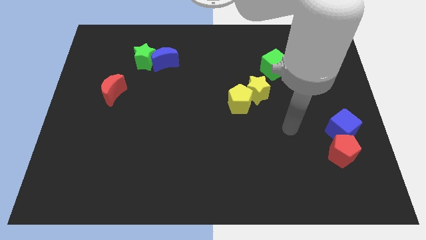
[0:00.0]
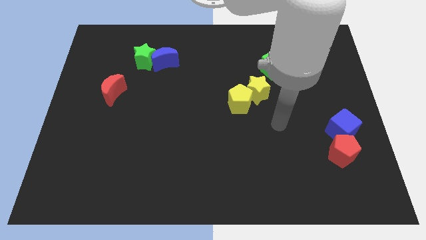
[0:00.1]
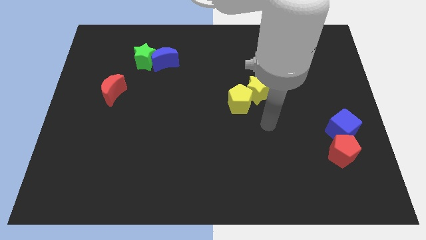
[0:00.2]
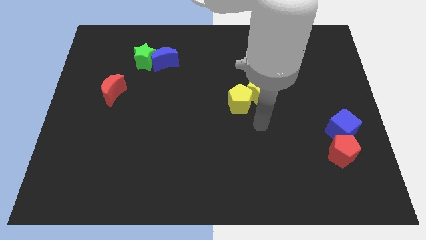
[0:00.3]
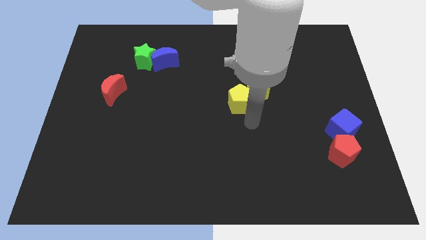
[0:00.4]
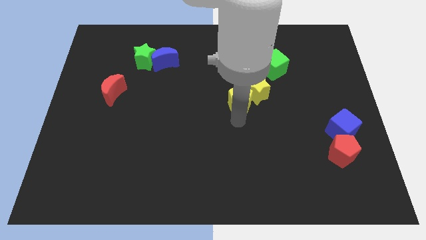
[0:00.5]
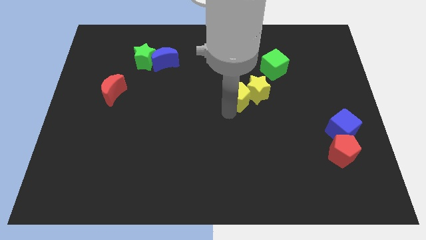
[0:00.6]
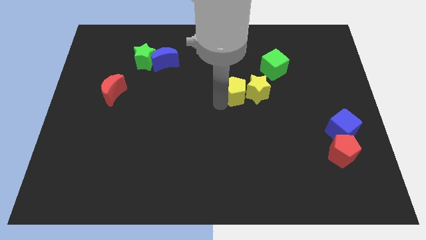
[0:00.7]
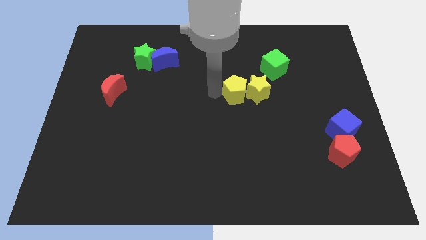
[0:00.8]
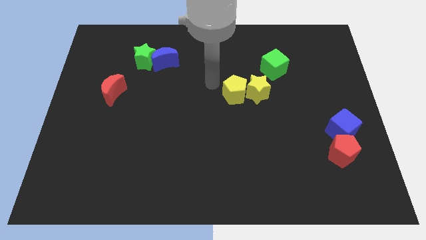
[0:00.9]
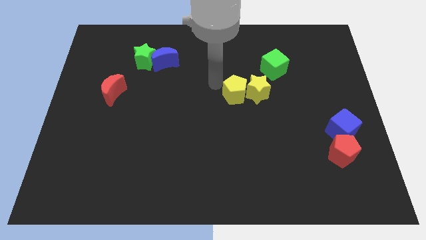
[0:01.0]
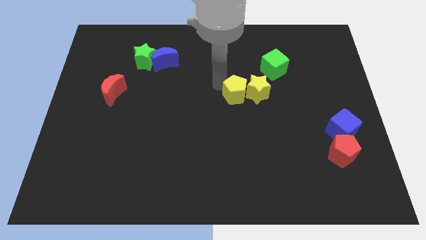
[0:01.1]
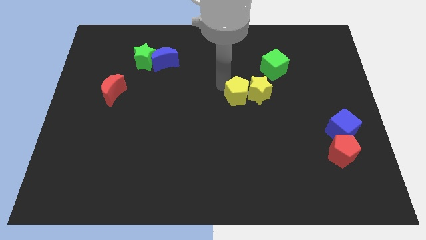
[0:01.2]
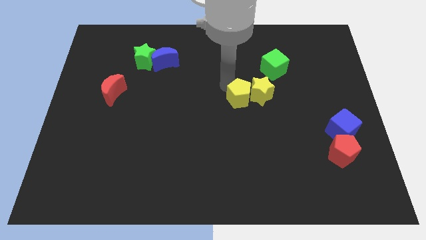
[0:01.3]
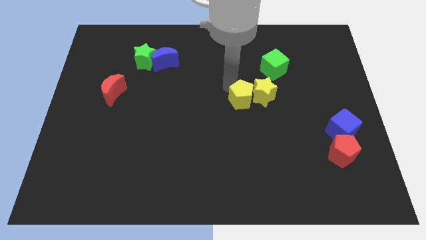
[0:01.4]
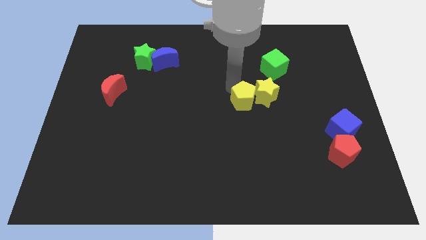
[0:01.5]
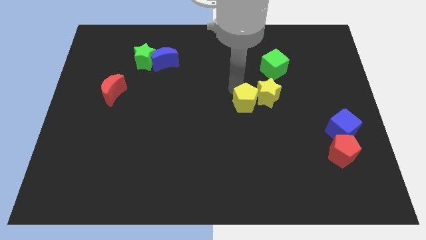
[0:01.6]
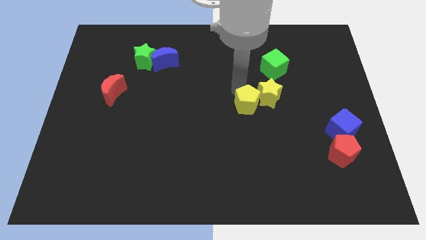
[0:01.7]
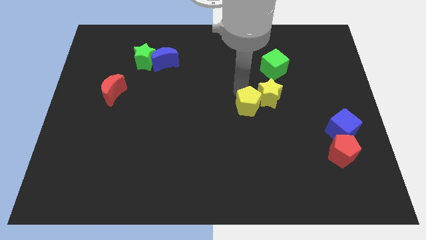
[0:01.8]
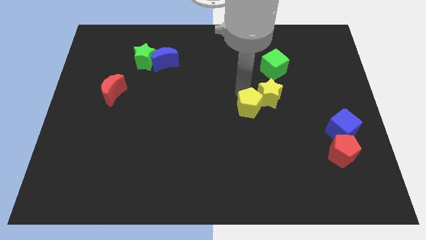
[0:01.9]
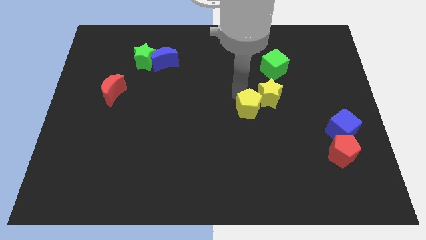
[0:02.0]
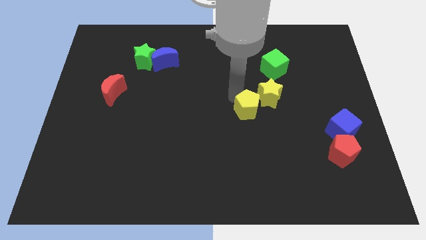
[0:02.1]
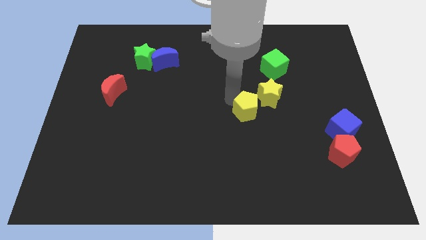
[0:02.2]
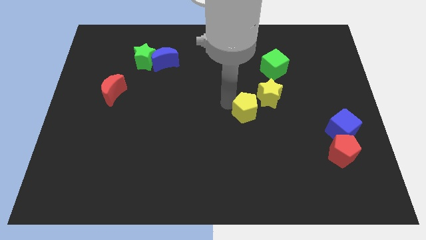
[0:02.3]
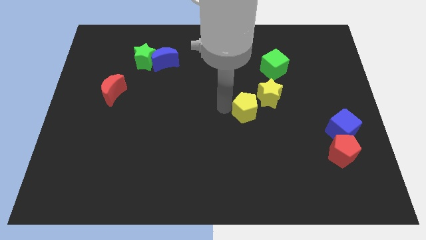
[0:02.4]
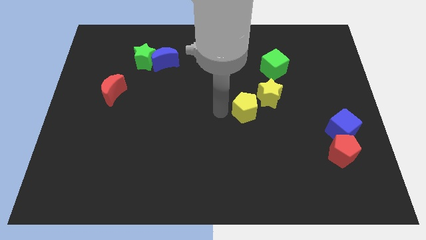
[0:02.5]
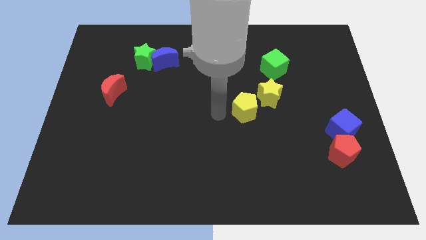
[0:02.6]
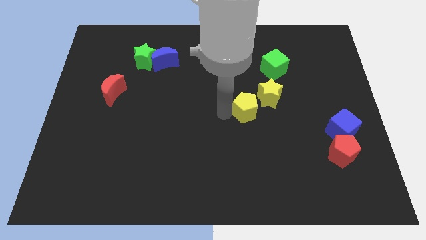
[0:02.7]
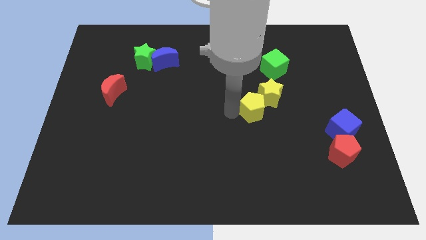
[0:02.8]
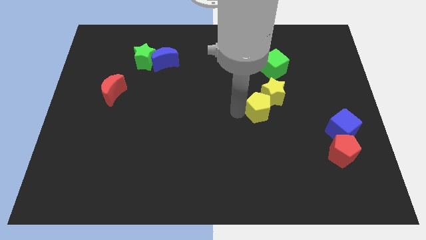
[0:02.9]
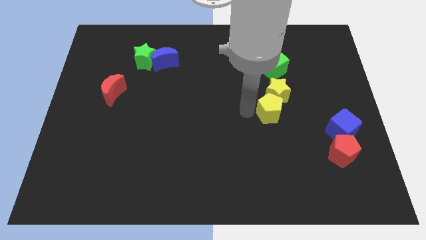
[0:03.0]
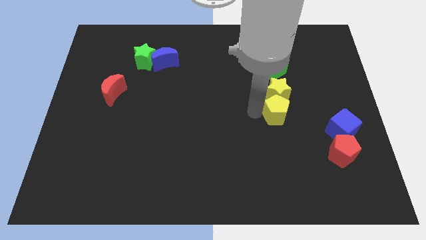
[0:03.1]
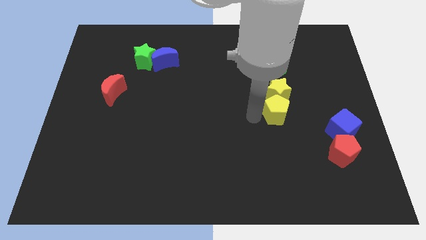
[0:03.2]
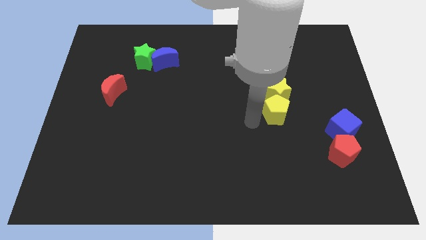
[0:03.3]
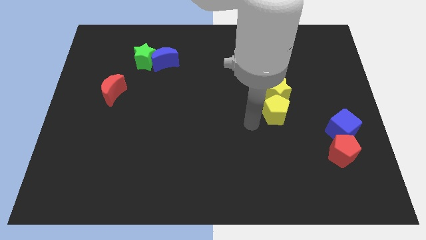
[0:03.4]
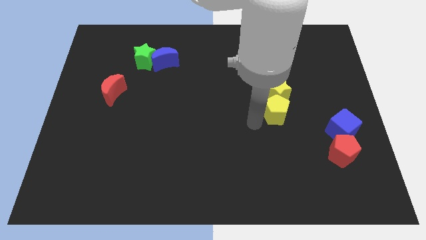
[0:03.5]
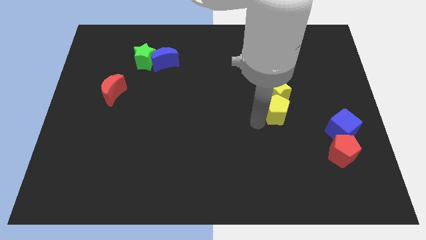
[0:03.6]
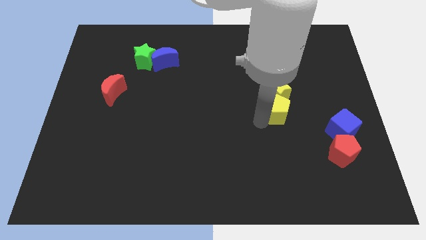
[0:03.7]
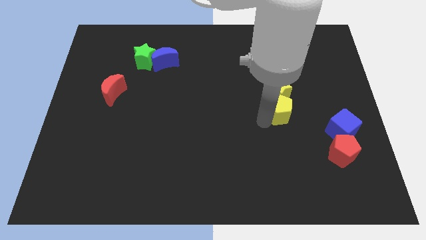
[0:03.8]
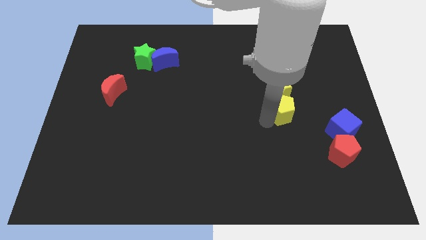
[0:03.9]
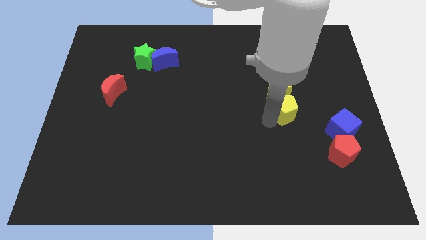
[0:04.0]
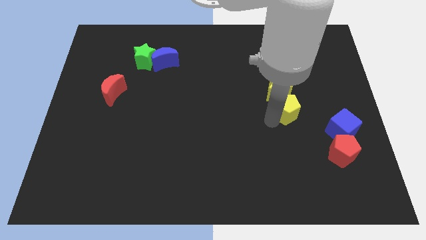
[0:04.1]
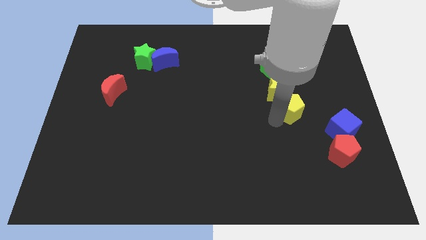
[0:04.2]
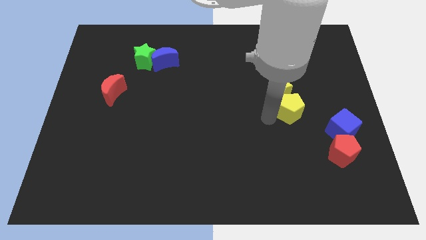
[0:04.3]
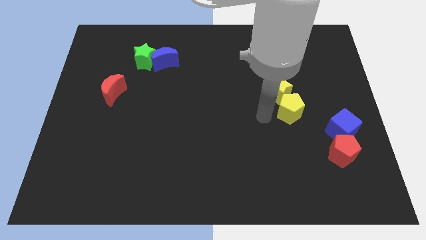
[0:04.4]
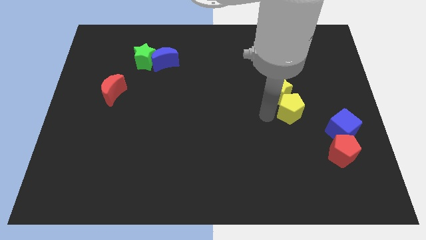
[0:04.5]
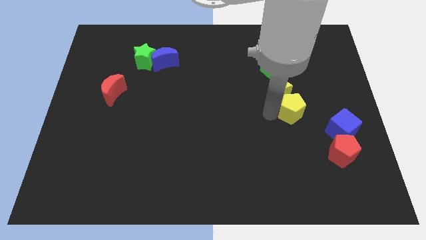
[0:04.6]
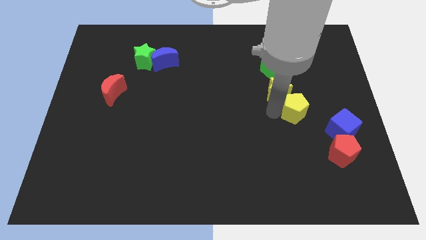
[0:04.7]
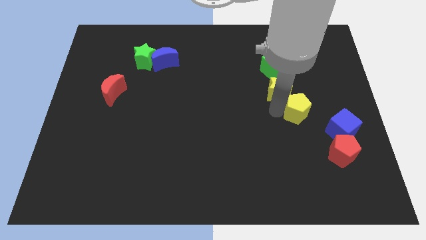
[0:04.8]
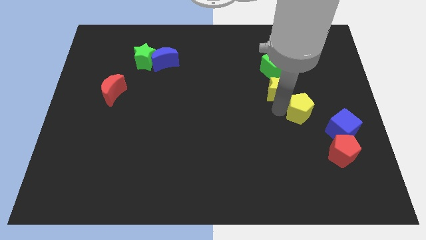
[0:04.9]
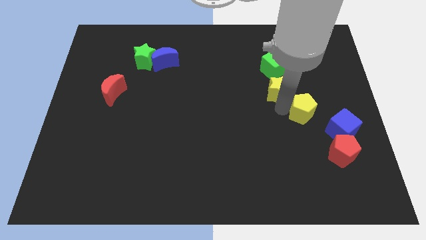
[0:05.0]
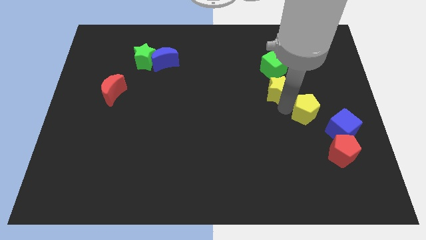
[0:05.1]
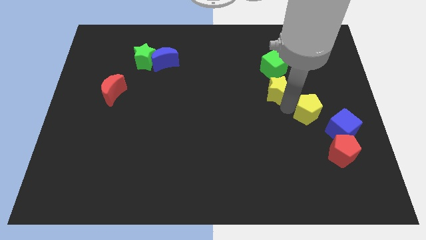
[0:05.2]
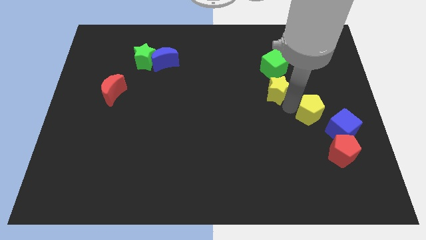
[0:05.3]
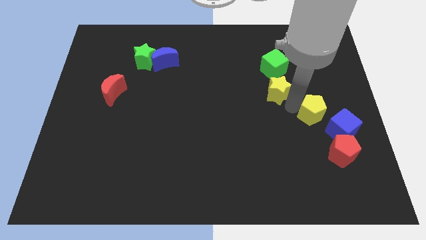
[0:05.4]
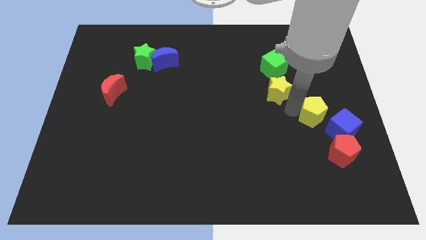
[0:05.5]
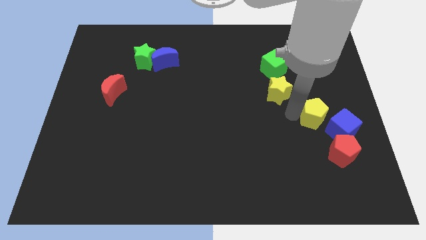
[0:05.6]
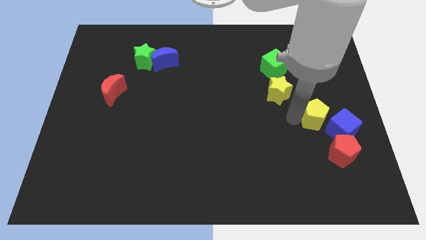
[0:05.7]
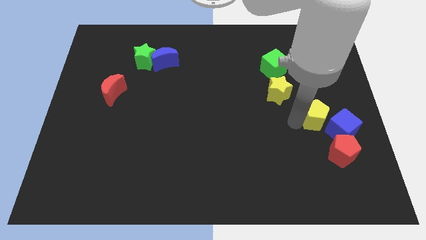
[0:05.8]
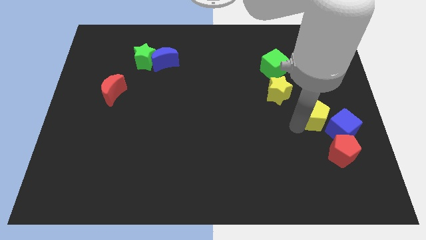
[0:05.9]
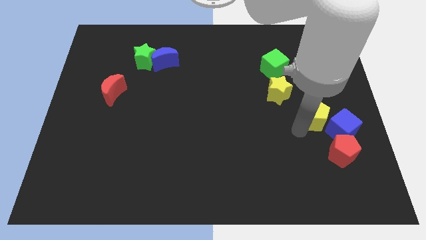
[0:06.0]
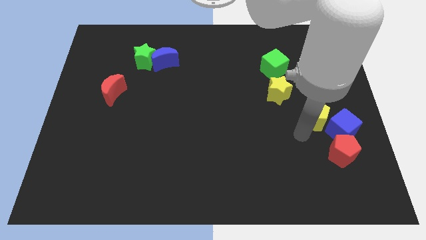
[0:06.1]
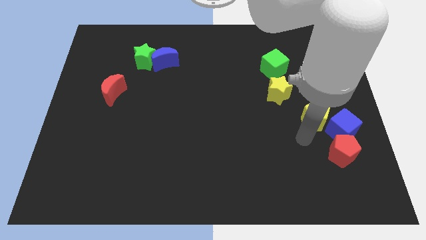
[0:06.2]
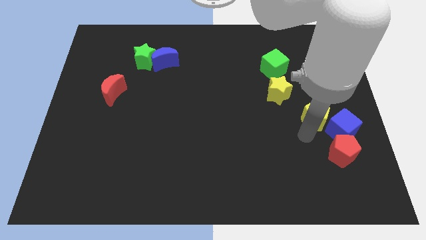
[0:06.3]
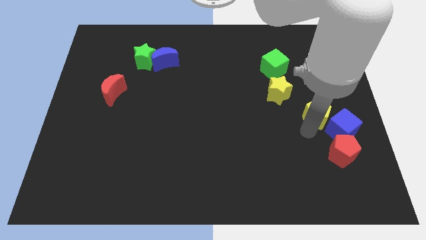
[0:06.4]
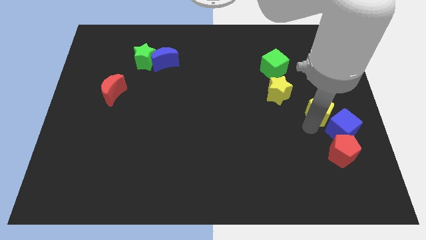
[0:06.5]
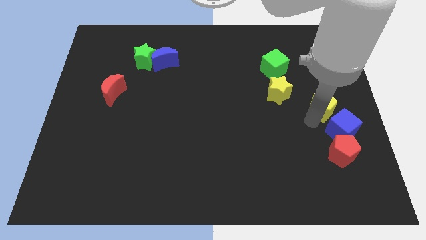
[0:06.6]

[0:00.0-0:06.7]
move the yellow pentagon to the right side
